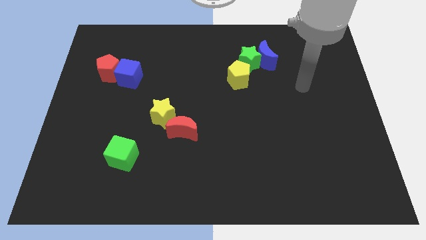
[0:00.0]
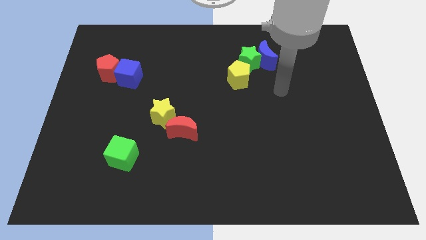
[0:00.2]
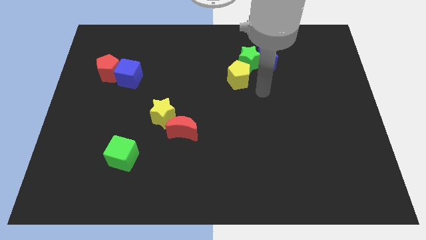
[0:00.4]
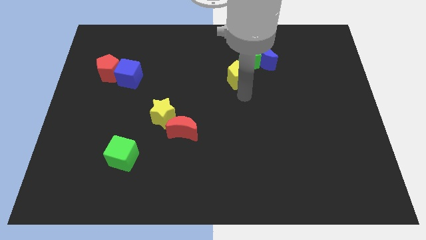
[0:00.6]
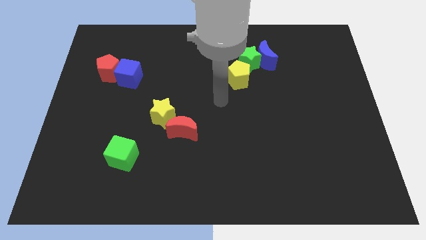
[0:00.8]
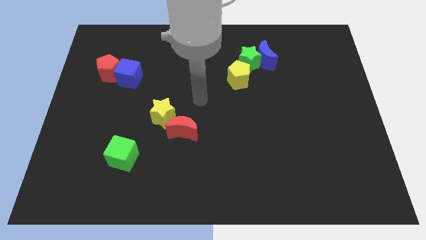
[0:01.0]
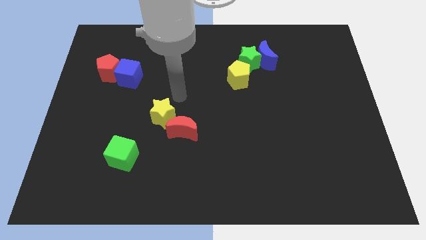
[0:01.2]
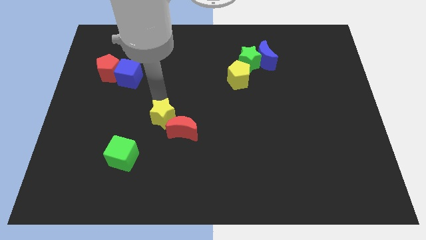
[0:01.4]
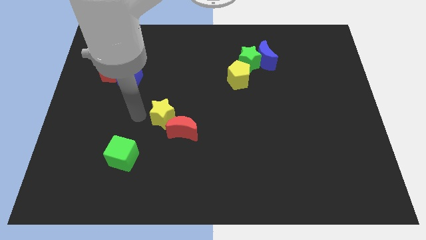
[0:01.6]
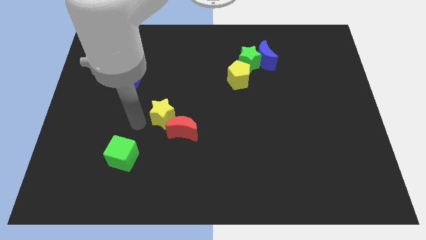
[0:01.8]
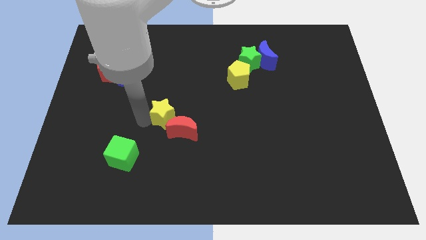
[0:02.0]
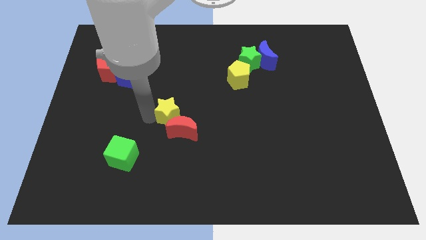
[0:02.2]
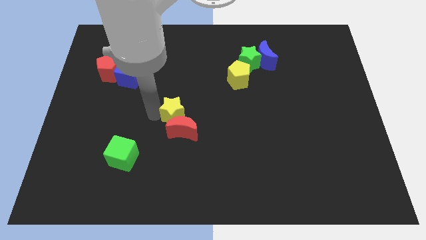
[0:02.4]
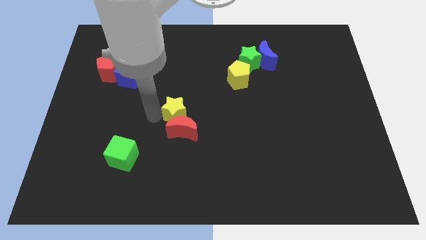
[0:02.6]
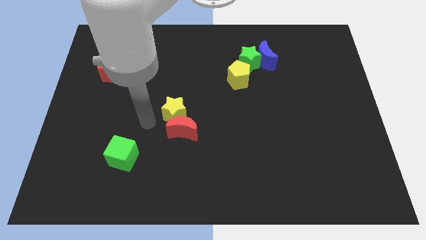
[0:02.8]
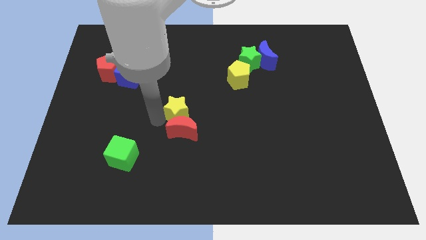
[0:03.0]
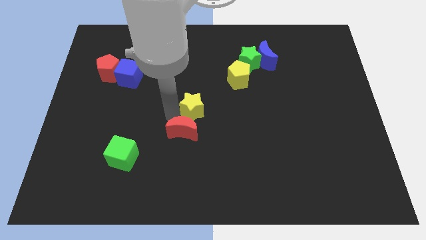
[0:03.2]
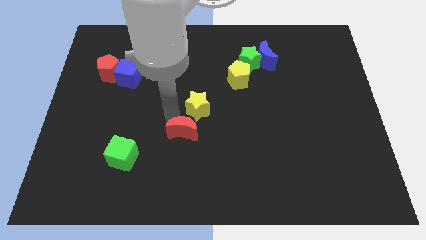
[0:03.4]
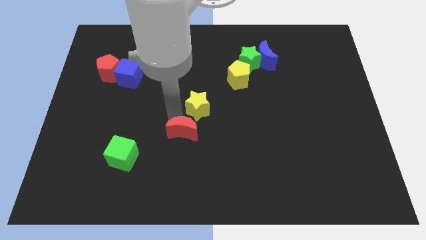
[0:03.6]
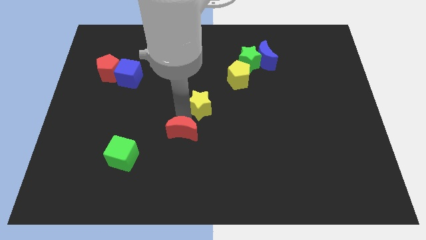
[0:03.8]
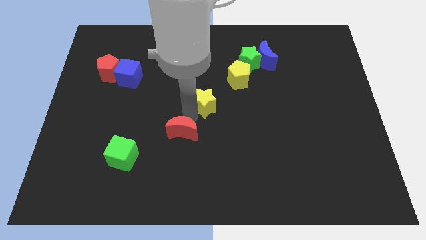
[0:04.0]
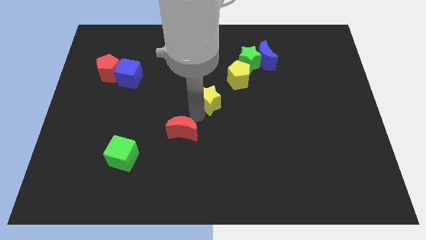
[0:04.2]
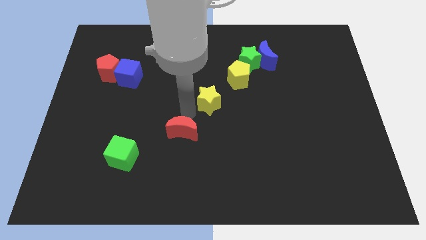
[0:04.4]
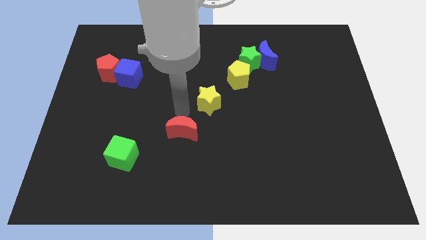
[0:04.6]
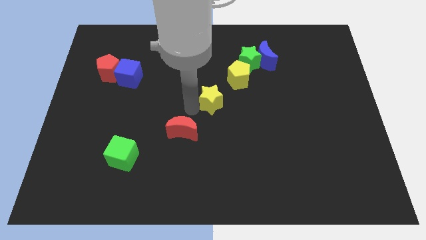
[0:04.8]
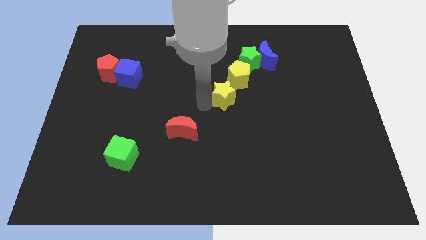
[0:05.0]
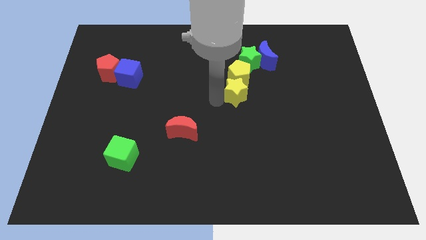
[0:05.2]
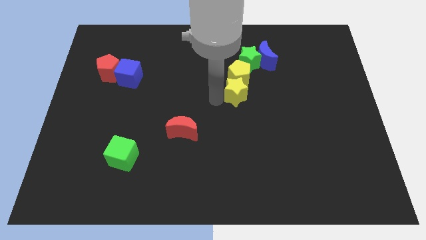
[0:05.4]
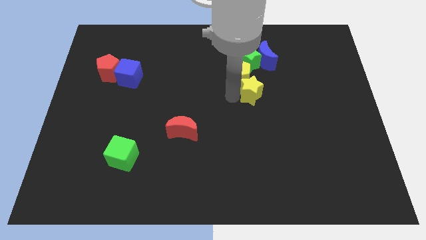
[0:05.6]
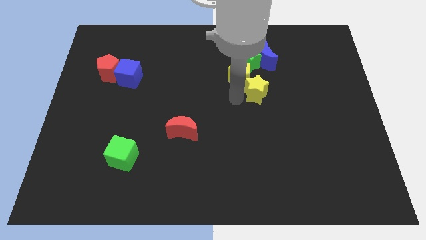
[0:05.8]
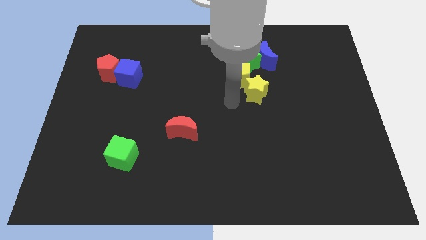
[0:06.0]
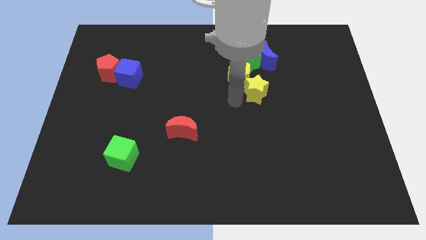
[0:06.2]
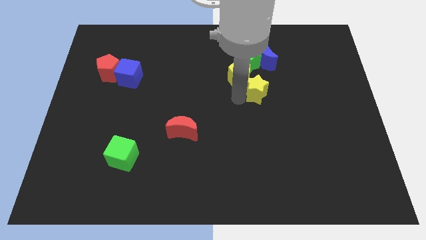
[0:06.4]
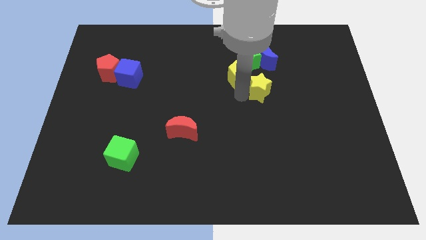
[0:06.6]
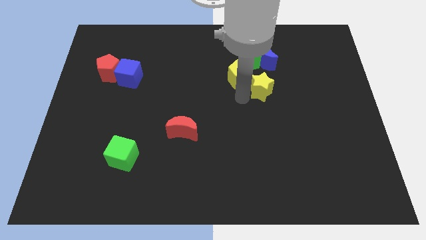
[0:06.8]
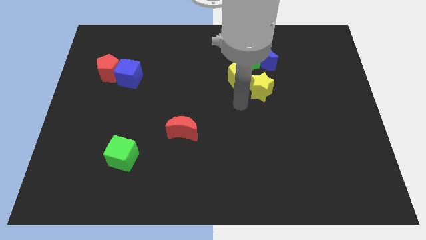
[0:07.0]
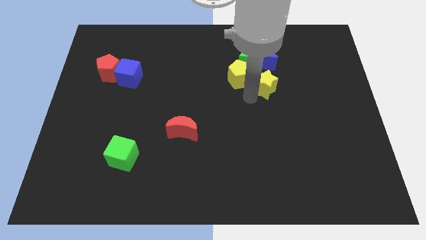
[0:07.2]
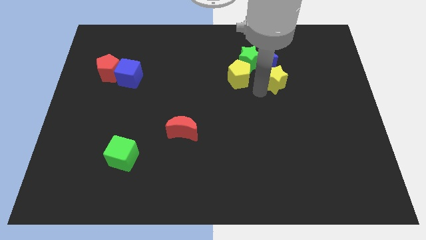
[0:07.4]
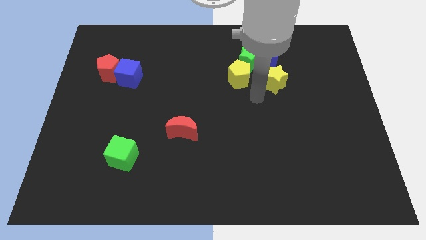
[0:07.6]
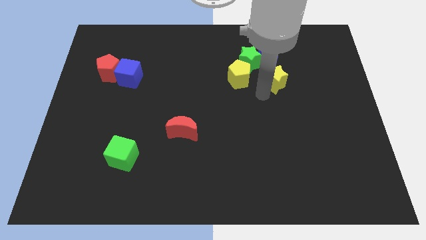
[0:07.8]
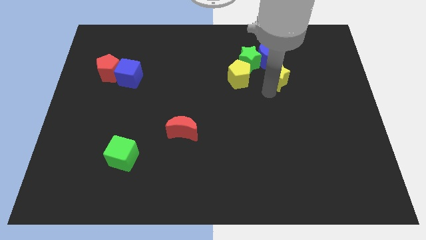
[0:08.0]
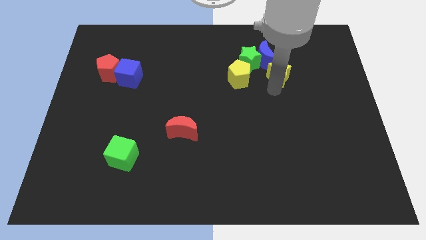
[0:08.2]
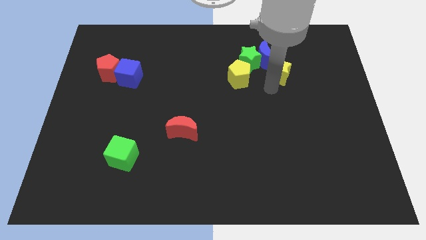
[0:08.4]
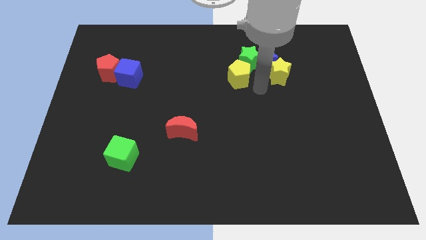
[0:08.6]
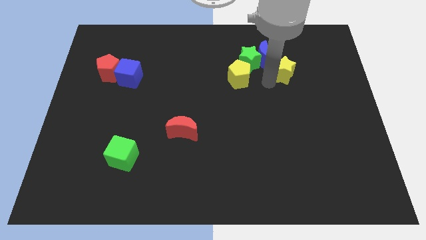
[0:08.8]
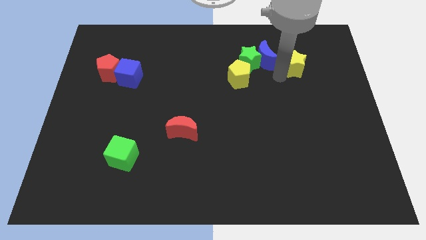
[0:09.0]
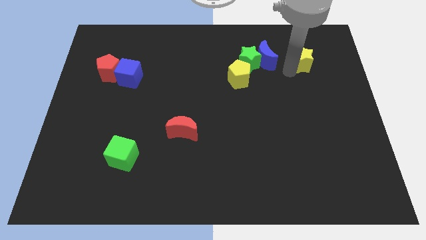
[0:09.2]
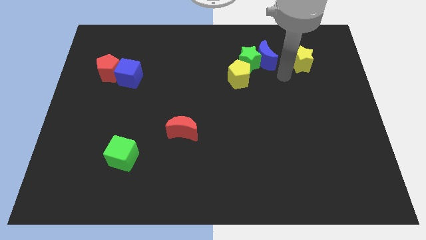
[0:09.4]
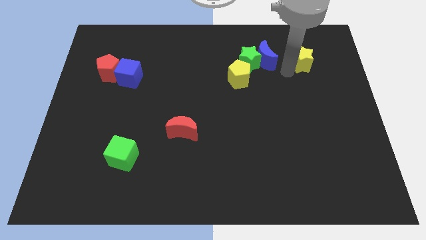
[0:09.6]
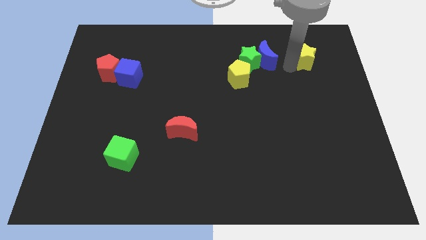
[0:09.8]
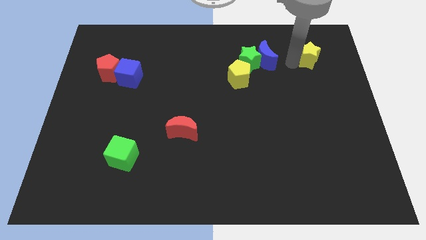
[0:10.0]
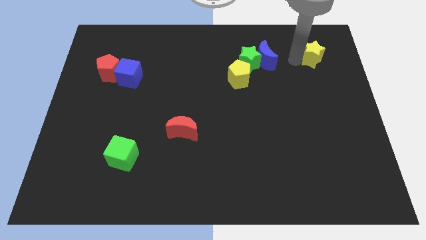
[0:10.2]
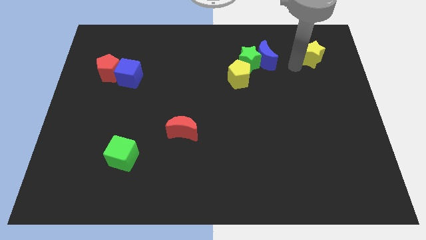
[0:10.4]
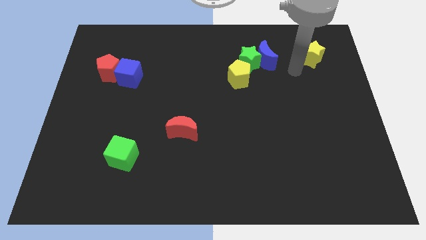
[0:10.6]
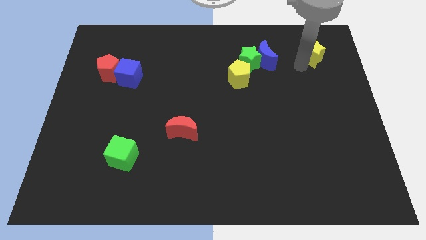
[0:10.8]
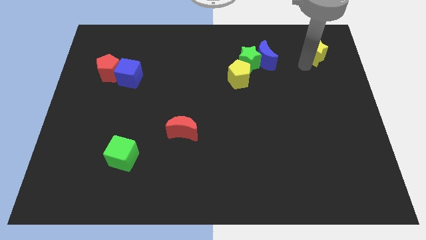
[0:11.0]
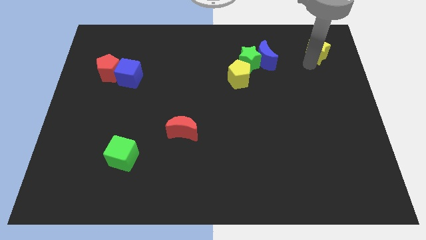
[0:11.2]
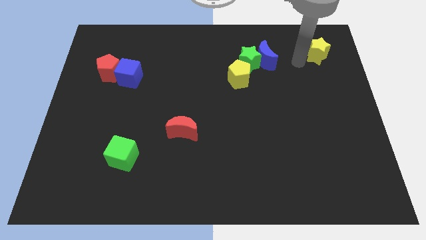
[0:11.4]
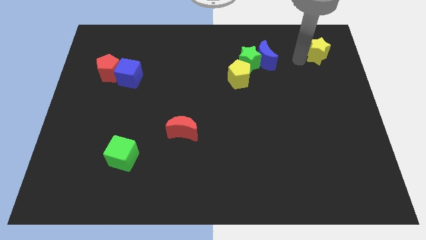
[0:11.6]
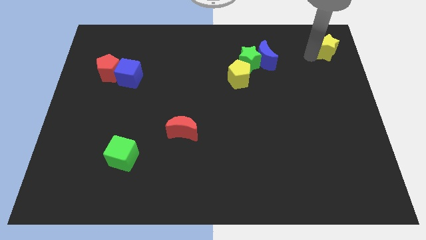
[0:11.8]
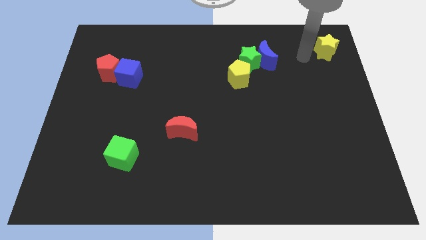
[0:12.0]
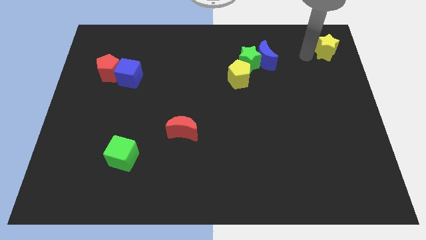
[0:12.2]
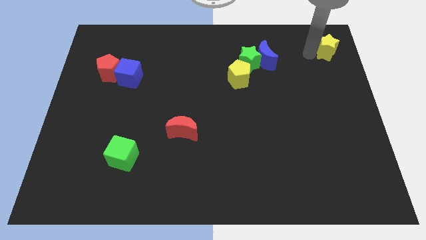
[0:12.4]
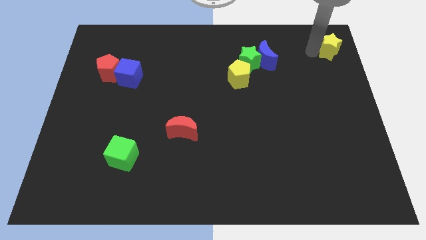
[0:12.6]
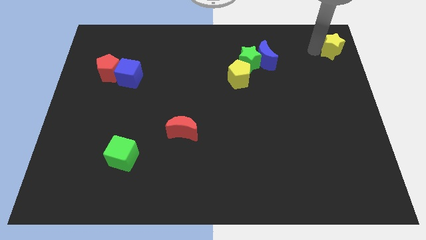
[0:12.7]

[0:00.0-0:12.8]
push the yellow star to the top right of the board

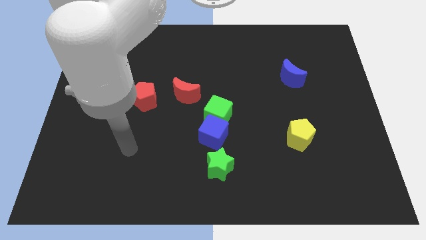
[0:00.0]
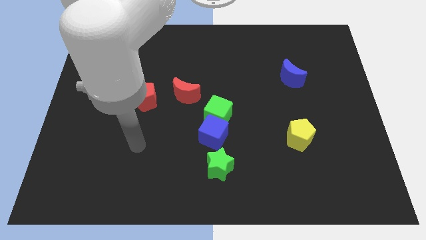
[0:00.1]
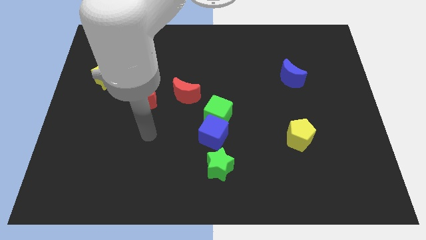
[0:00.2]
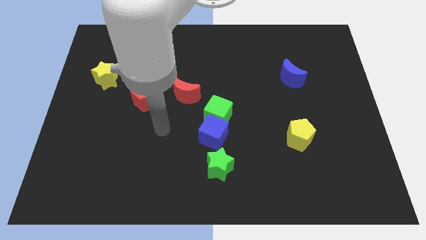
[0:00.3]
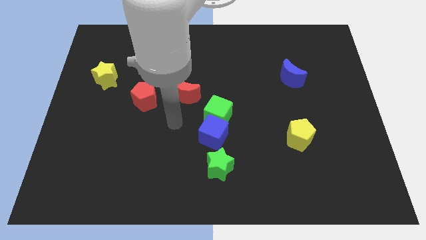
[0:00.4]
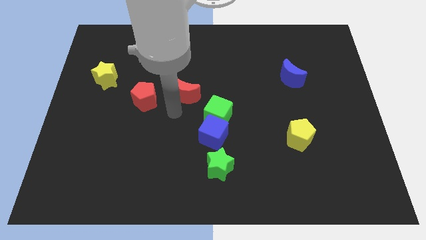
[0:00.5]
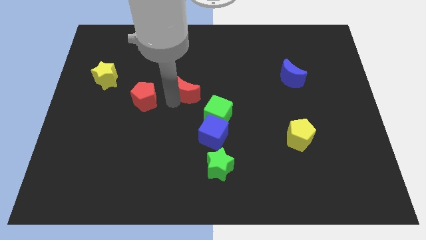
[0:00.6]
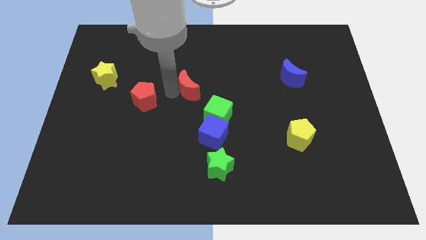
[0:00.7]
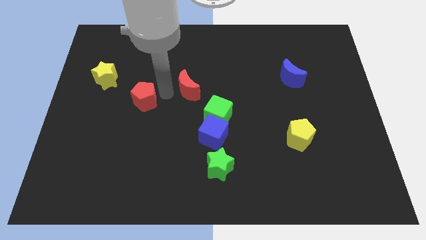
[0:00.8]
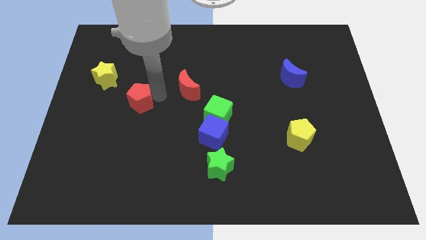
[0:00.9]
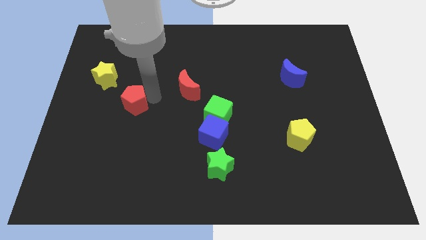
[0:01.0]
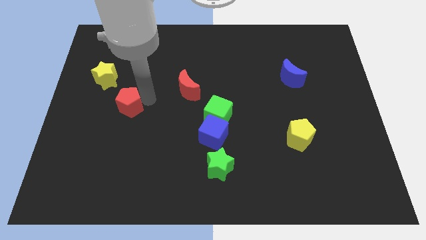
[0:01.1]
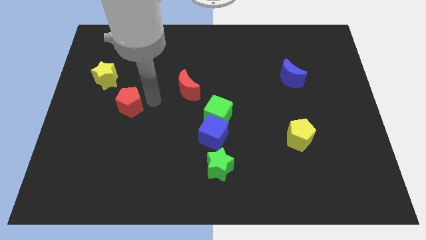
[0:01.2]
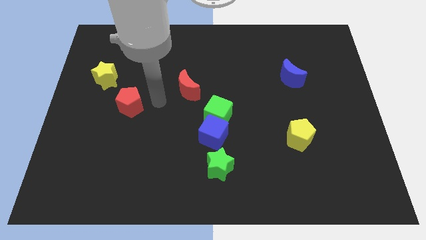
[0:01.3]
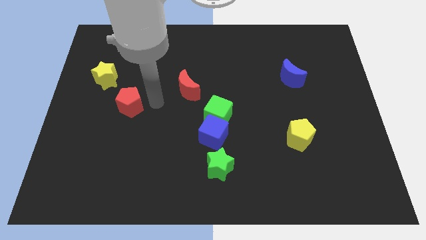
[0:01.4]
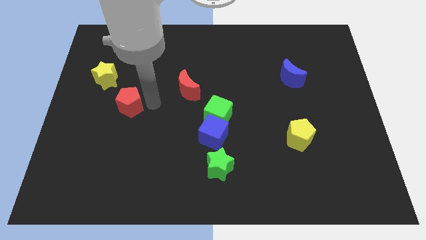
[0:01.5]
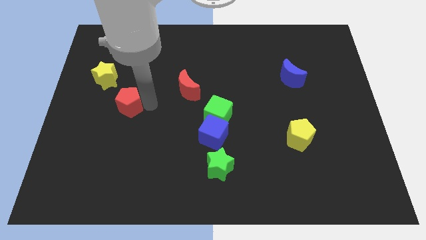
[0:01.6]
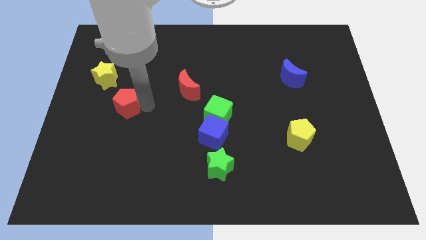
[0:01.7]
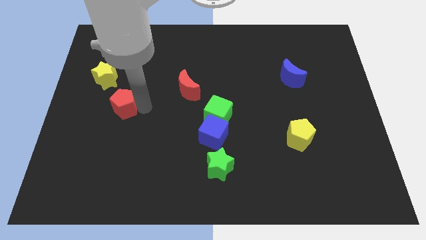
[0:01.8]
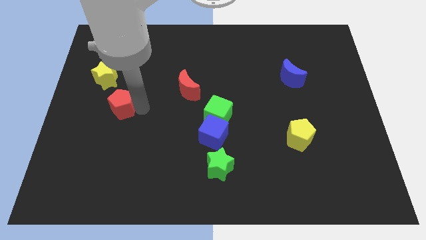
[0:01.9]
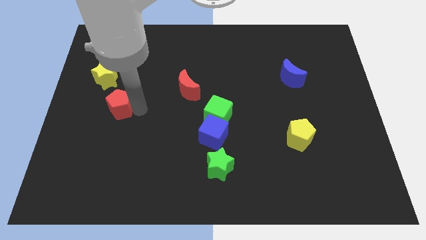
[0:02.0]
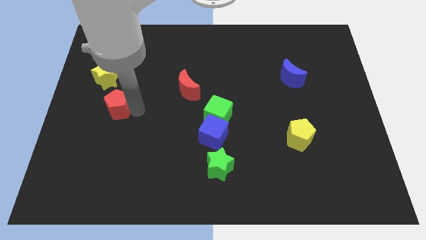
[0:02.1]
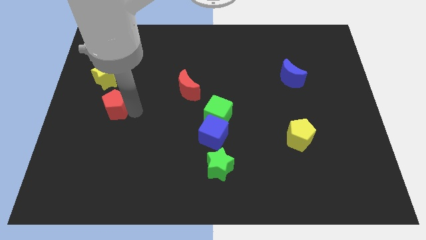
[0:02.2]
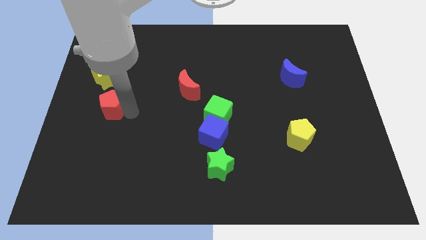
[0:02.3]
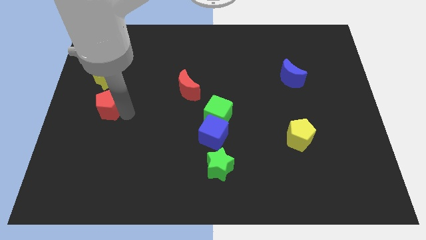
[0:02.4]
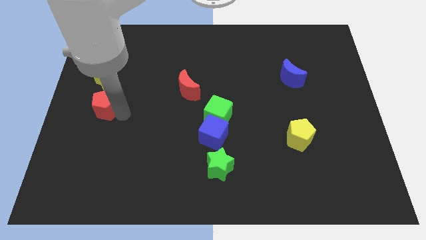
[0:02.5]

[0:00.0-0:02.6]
slide the red pentagon to the left side
